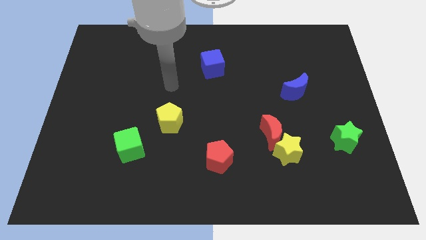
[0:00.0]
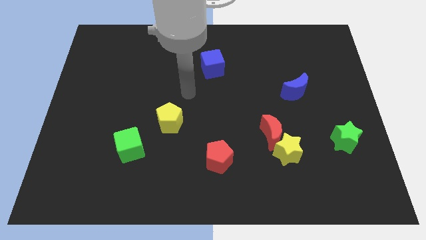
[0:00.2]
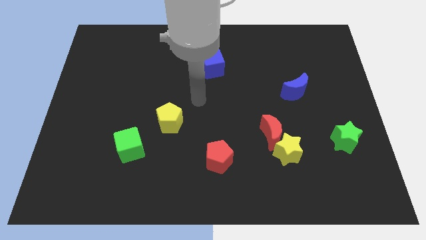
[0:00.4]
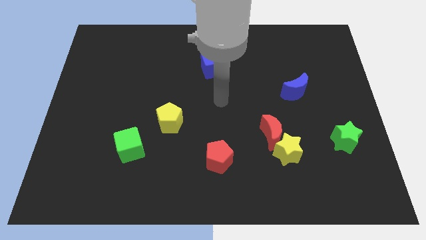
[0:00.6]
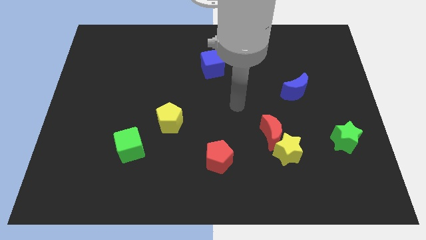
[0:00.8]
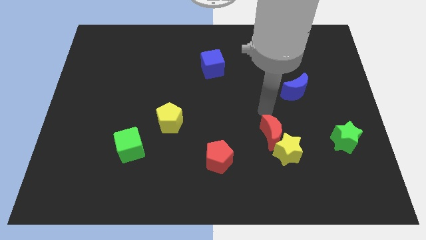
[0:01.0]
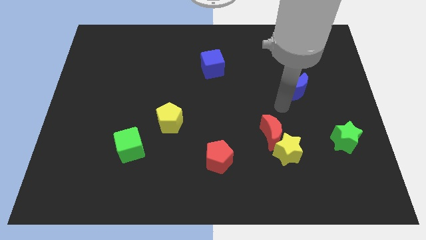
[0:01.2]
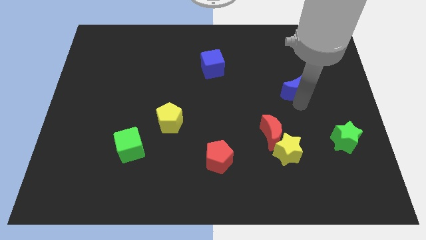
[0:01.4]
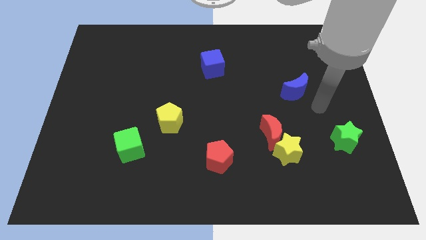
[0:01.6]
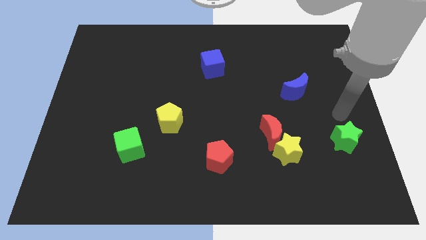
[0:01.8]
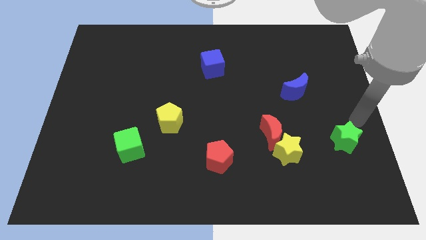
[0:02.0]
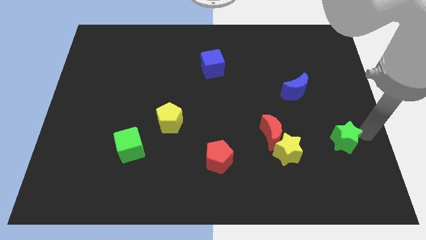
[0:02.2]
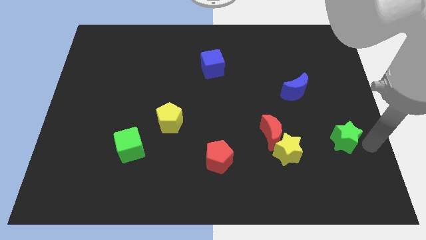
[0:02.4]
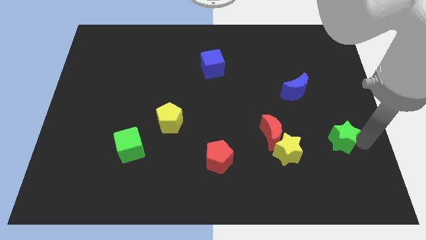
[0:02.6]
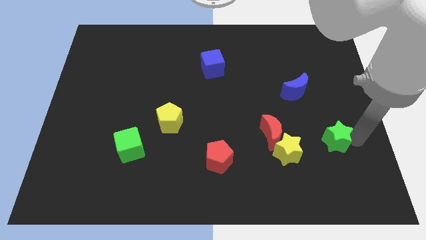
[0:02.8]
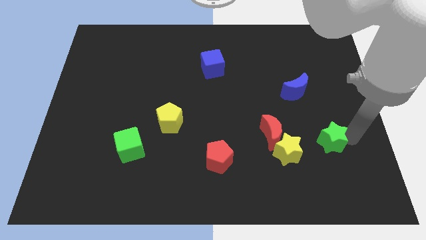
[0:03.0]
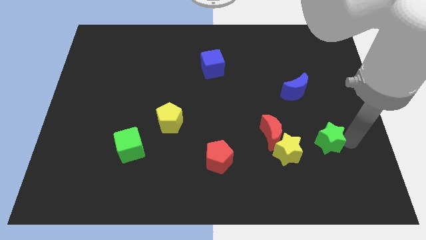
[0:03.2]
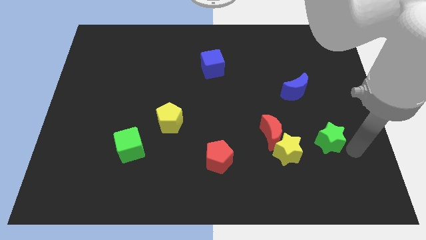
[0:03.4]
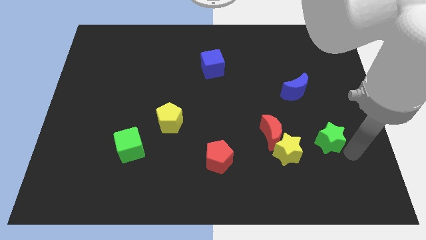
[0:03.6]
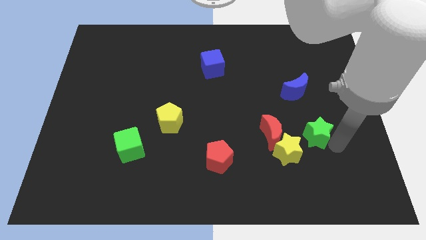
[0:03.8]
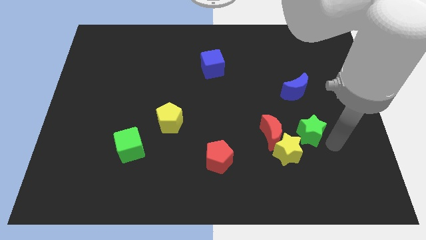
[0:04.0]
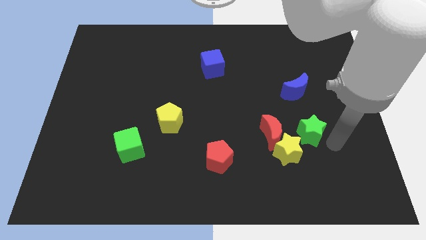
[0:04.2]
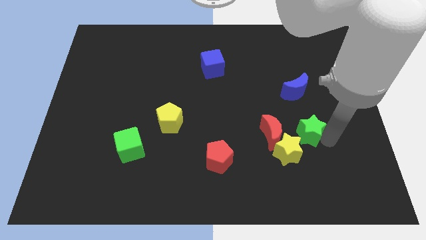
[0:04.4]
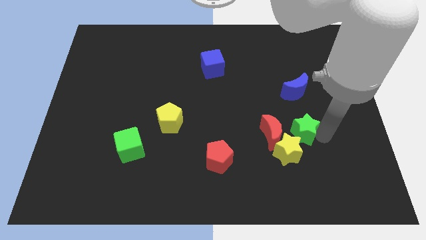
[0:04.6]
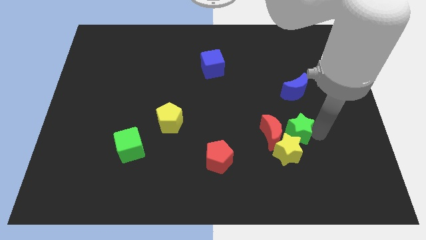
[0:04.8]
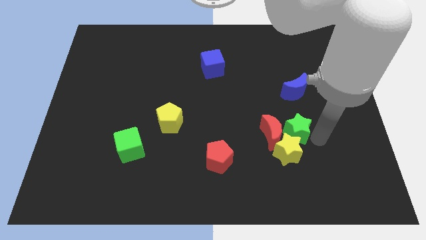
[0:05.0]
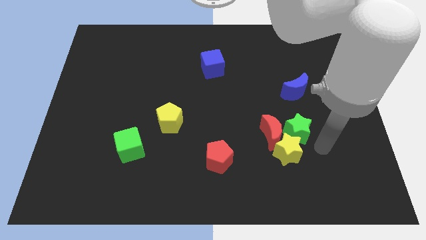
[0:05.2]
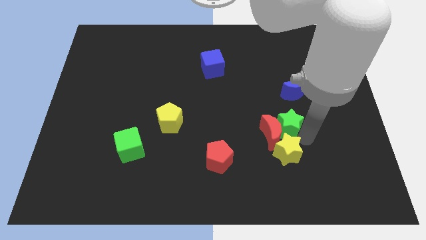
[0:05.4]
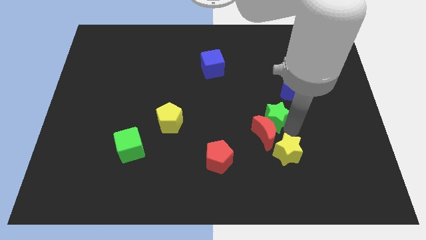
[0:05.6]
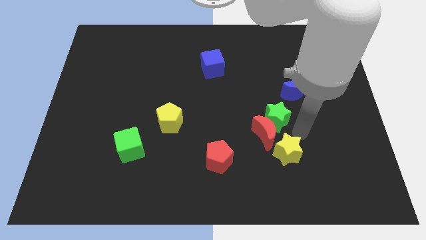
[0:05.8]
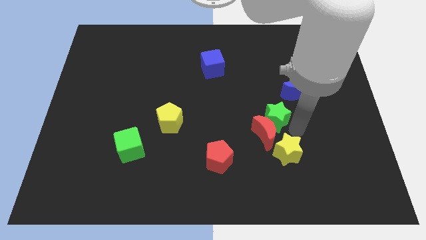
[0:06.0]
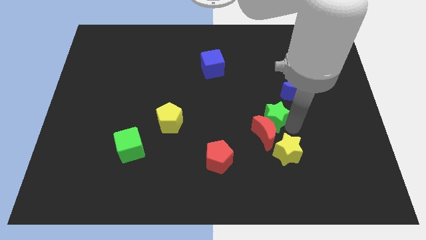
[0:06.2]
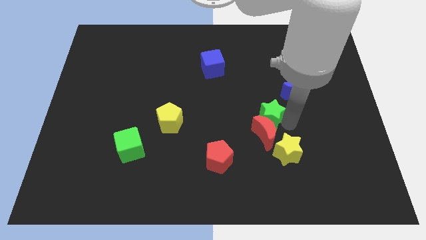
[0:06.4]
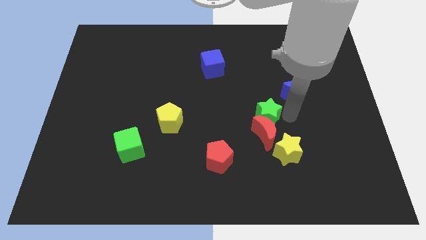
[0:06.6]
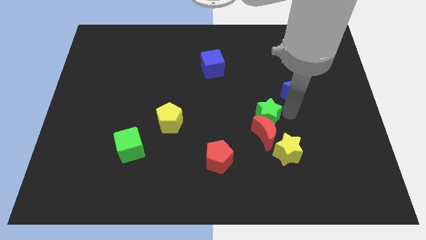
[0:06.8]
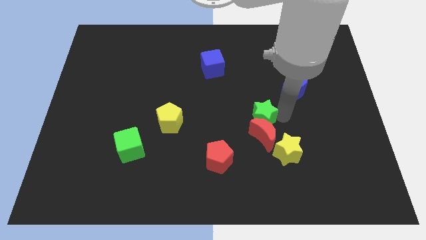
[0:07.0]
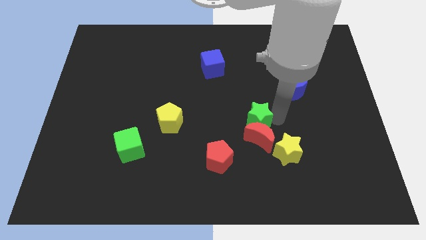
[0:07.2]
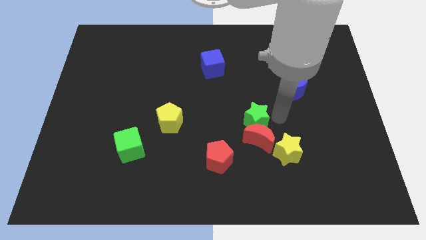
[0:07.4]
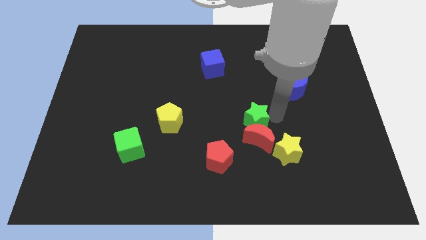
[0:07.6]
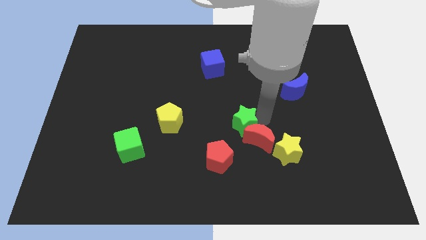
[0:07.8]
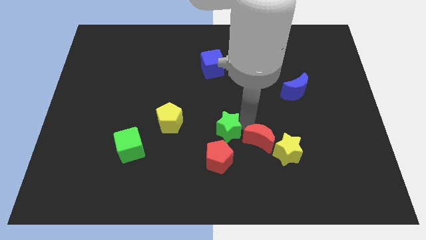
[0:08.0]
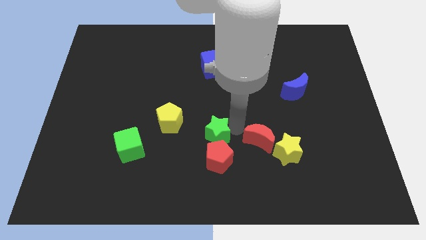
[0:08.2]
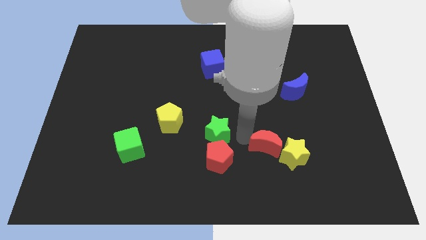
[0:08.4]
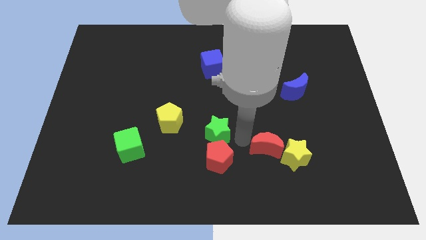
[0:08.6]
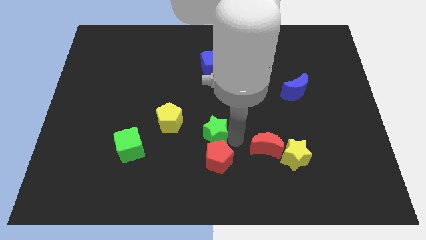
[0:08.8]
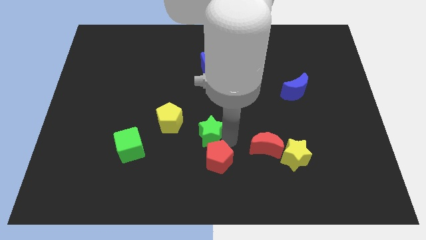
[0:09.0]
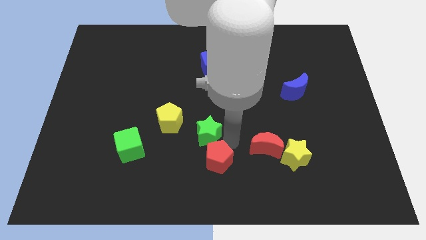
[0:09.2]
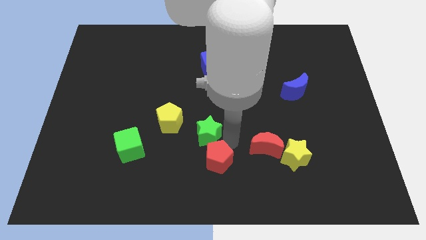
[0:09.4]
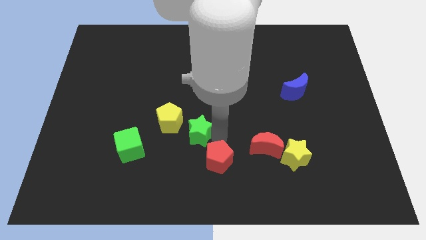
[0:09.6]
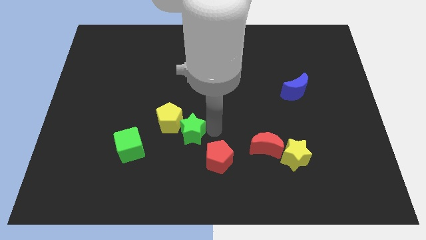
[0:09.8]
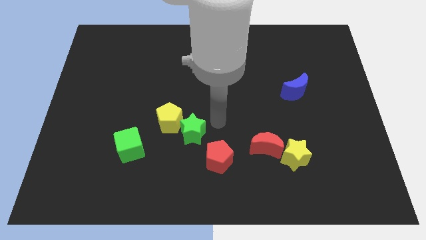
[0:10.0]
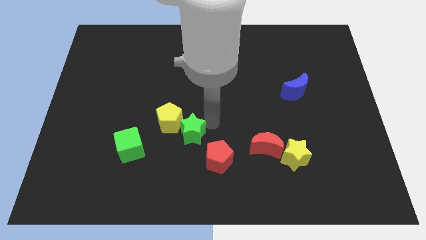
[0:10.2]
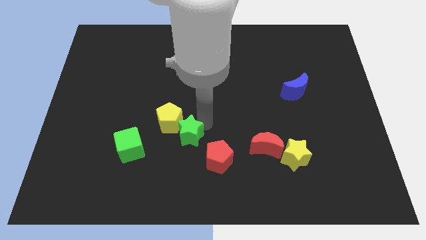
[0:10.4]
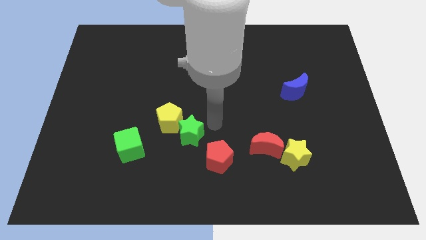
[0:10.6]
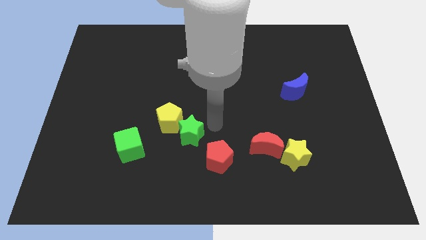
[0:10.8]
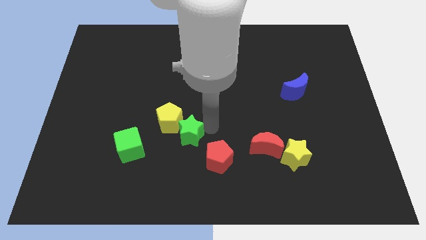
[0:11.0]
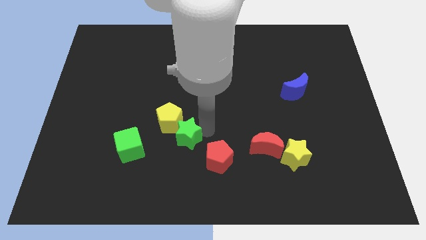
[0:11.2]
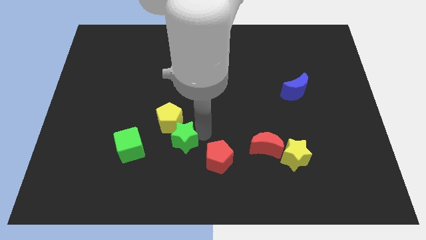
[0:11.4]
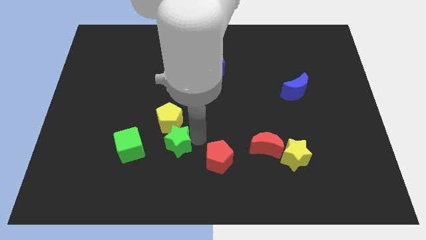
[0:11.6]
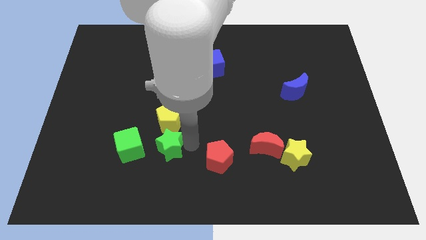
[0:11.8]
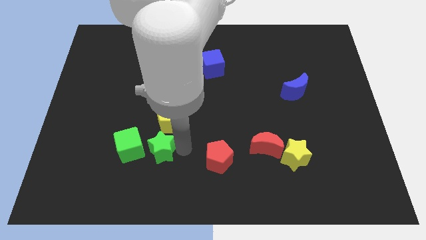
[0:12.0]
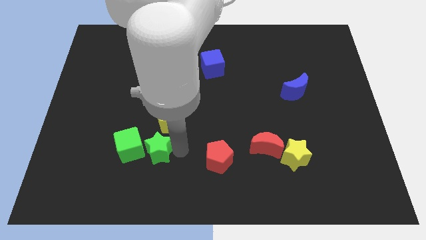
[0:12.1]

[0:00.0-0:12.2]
slide the green star to the green cube
